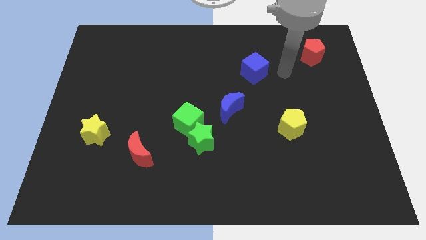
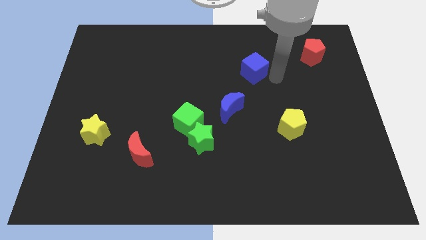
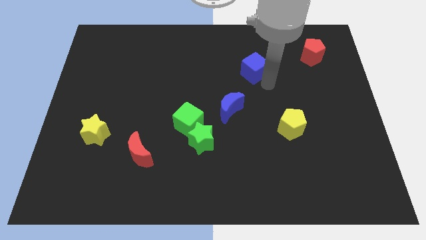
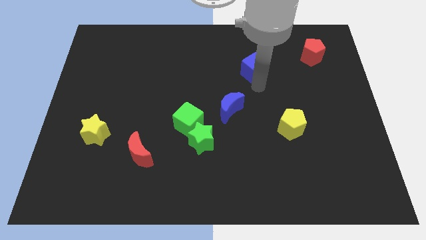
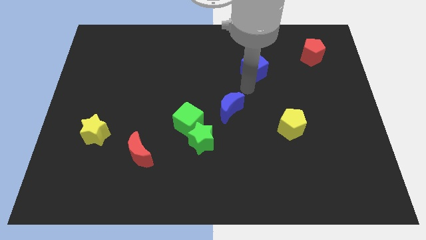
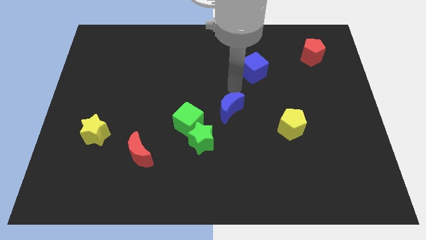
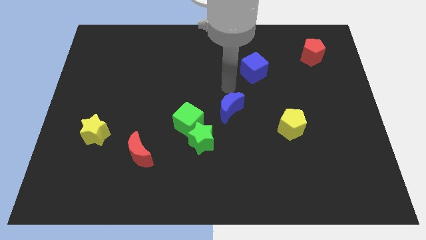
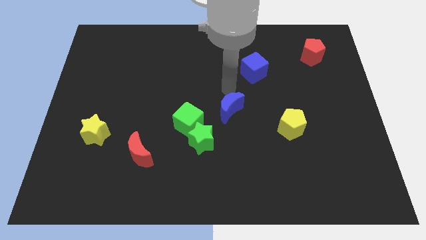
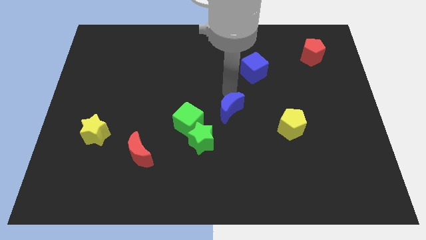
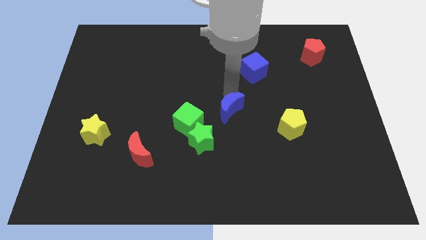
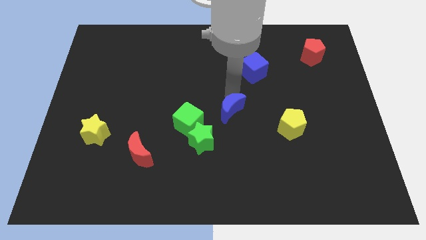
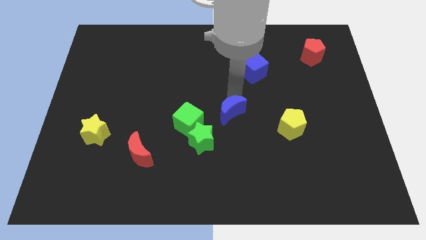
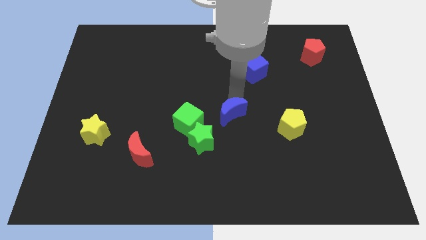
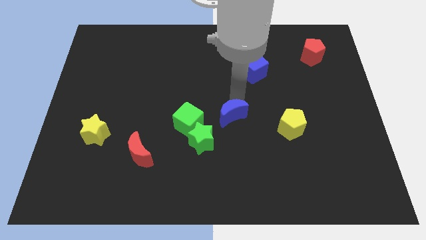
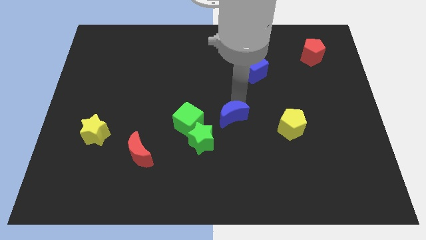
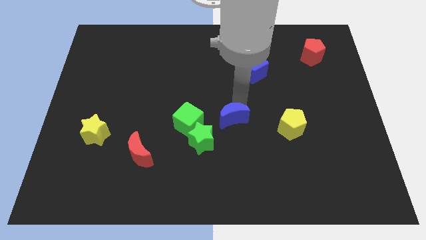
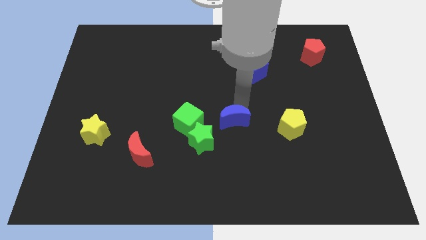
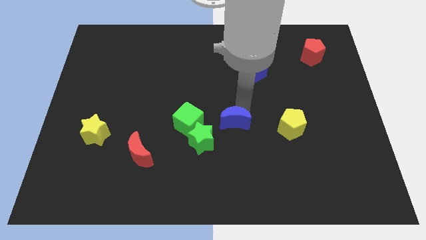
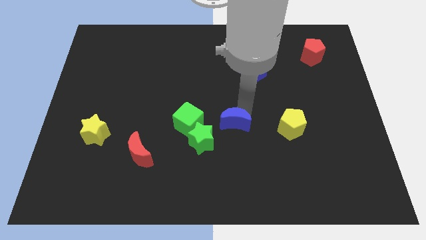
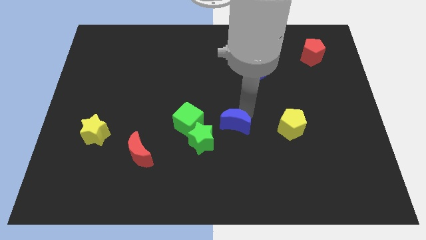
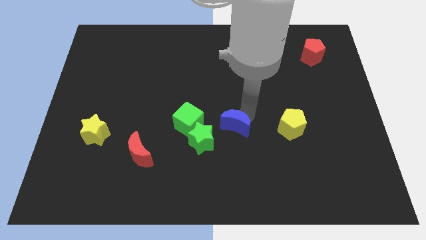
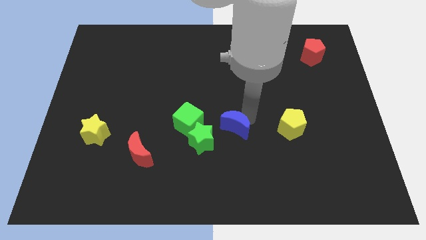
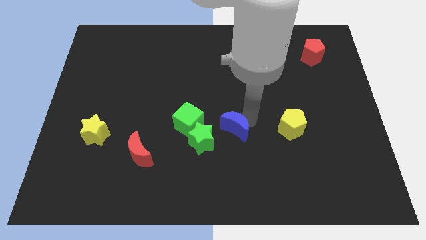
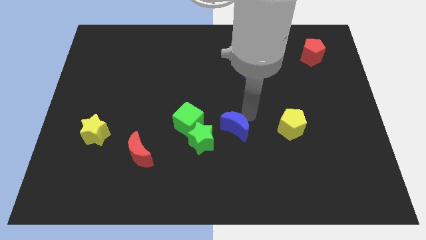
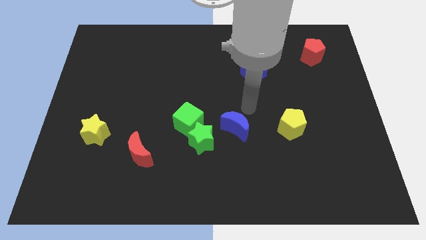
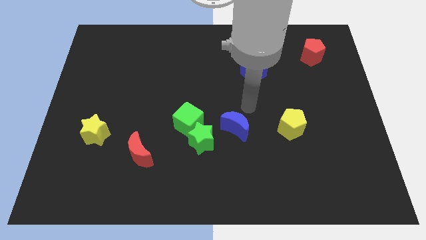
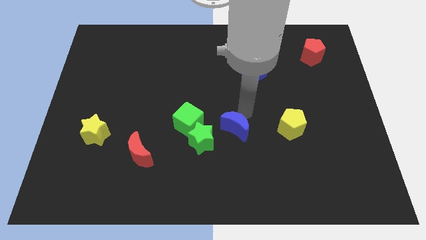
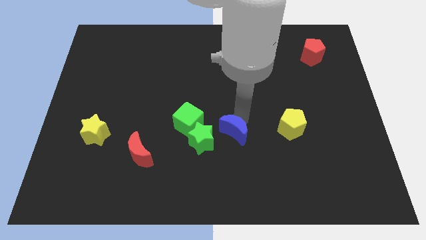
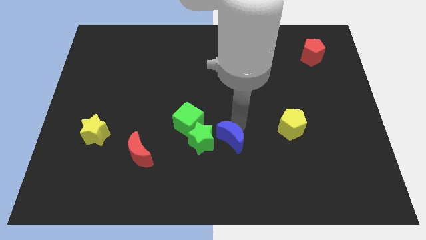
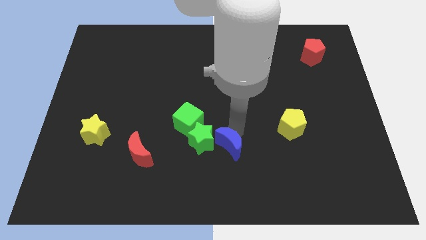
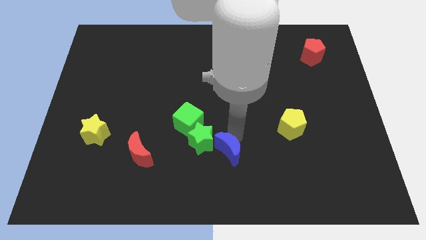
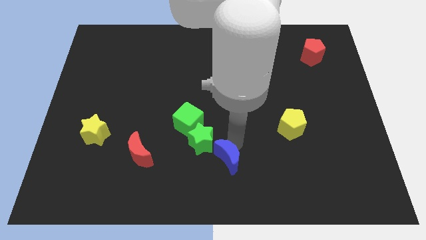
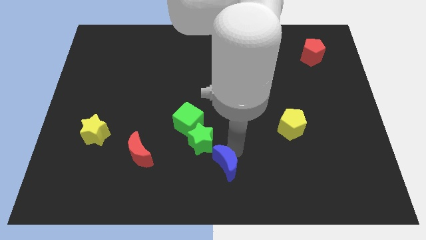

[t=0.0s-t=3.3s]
slide the blue moon a little diagonally down and to the left

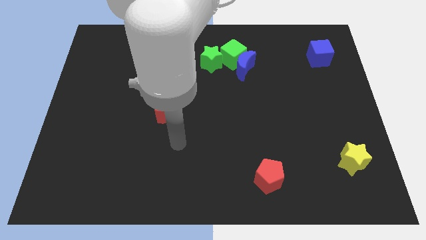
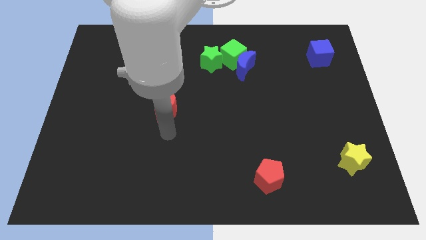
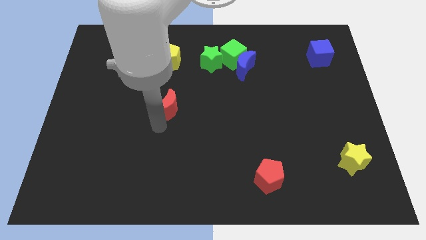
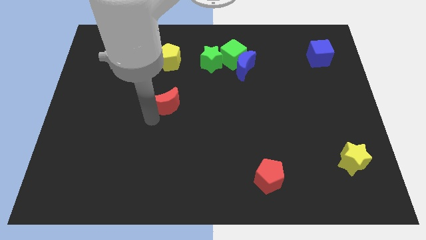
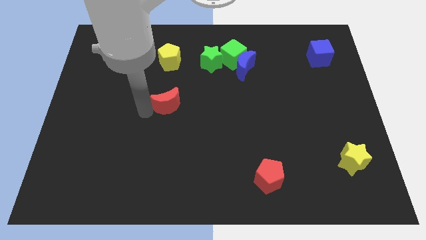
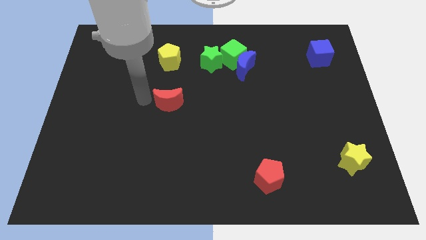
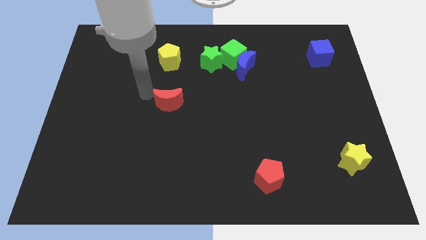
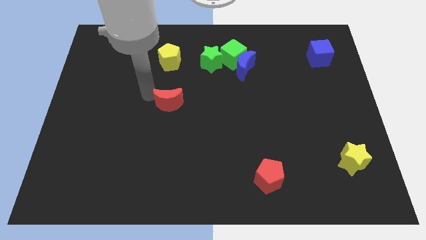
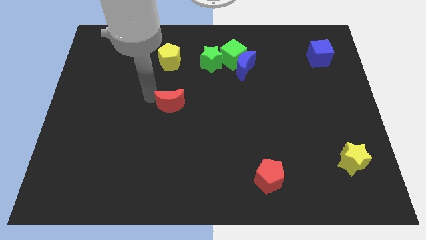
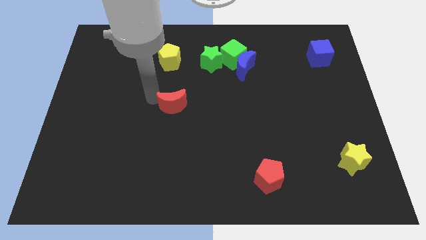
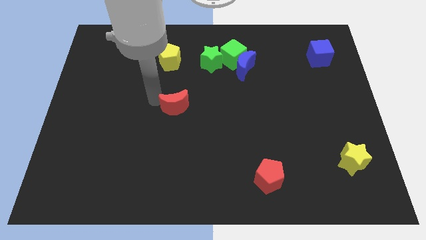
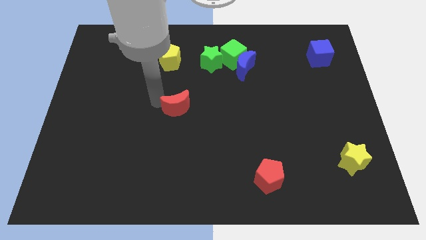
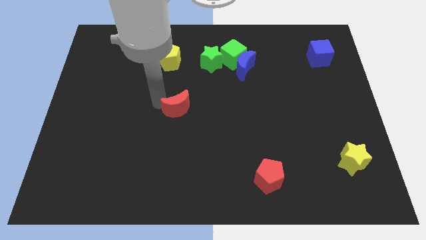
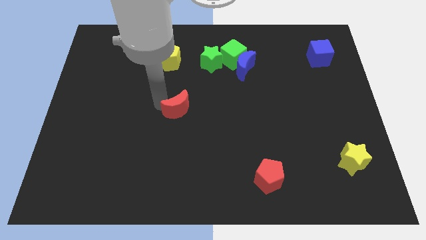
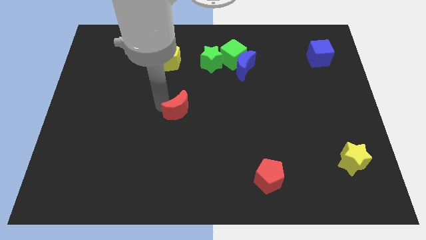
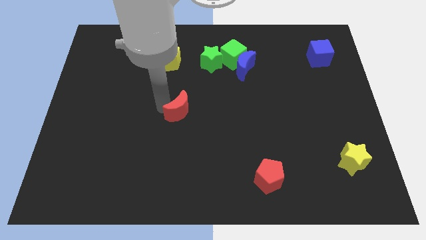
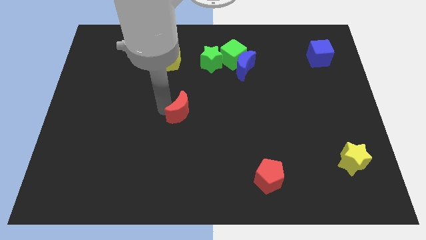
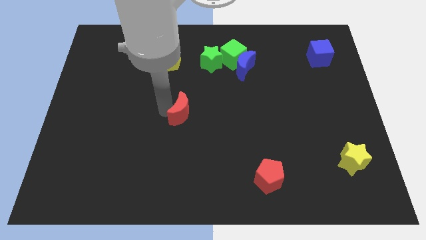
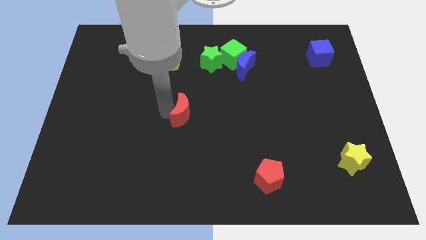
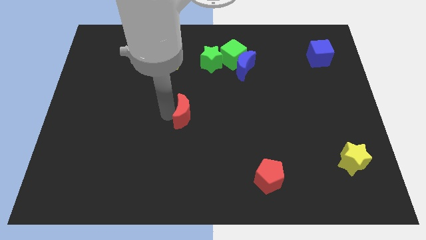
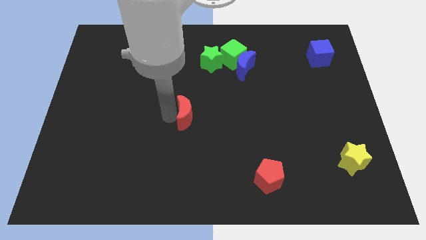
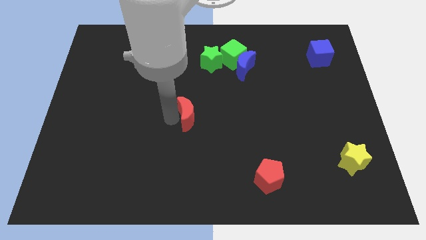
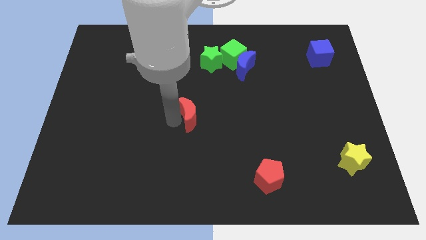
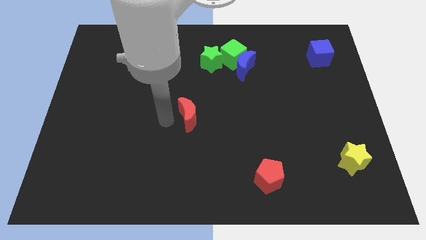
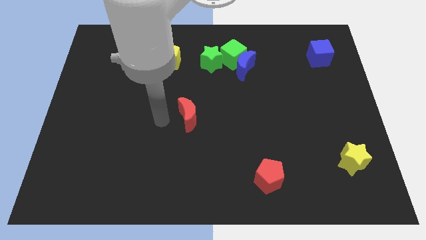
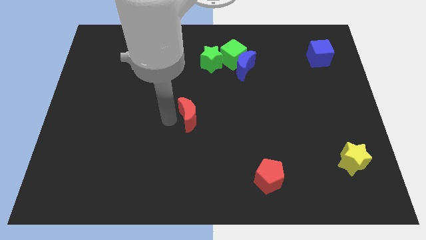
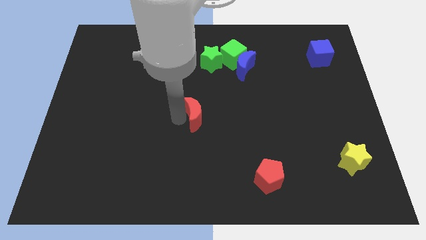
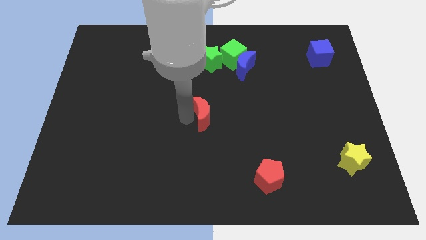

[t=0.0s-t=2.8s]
move the red moon right a little bit

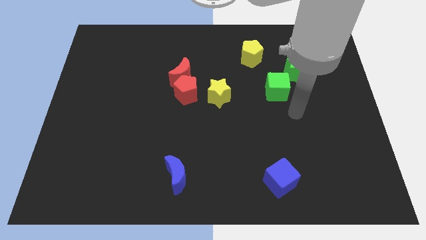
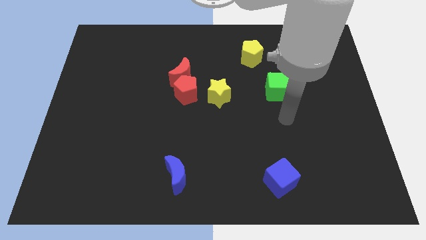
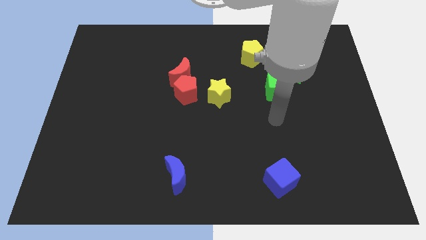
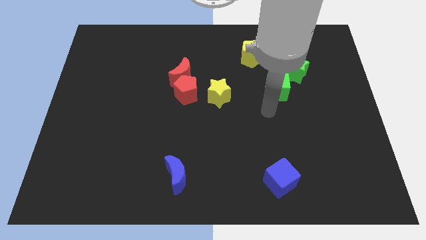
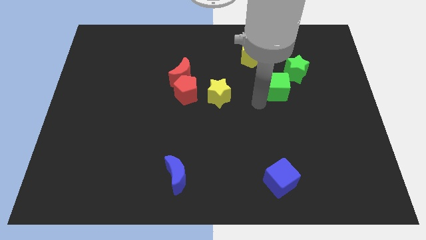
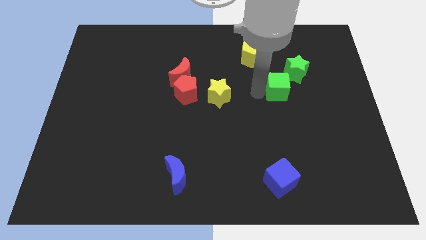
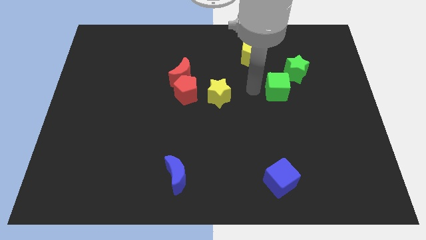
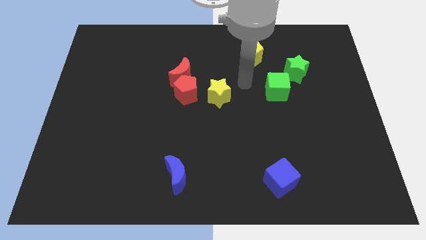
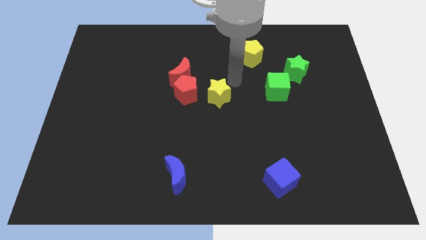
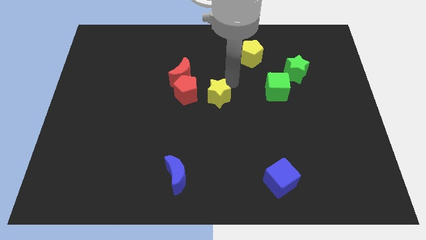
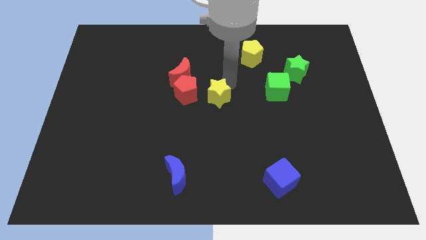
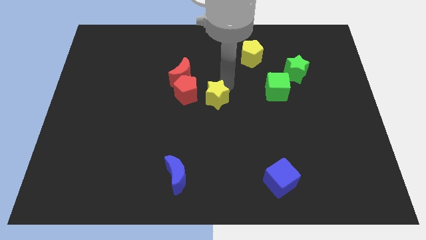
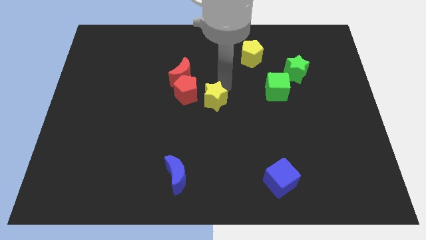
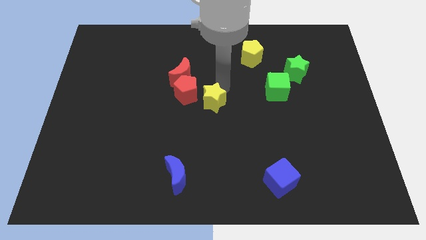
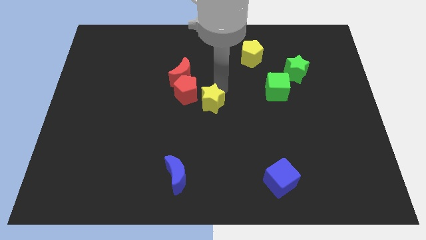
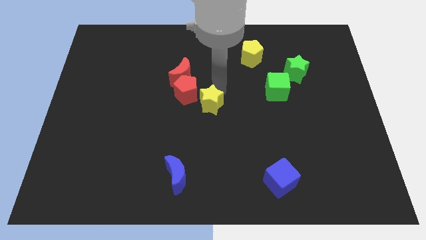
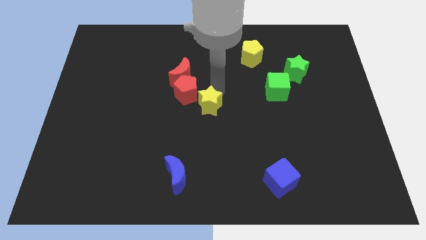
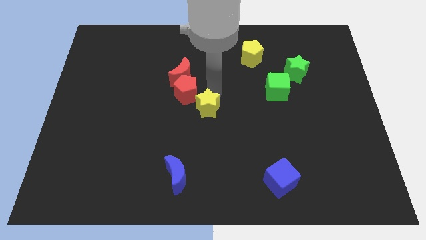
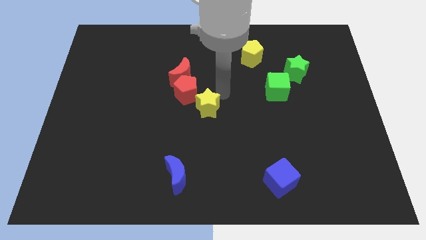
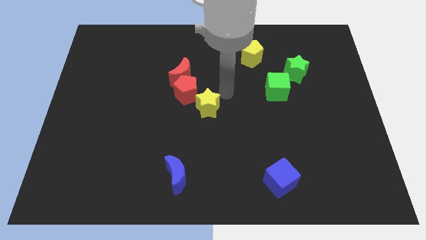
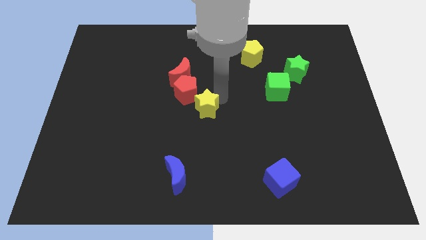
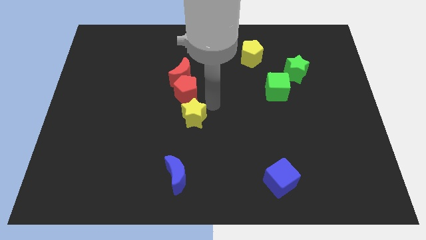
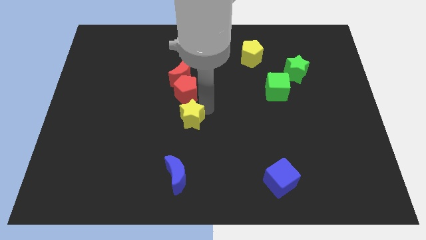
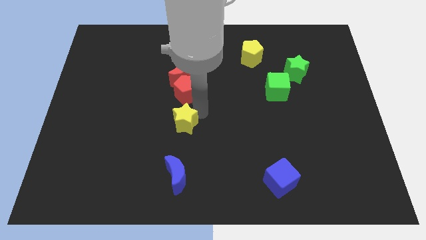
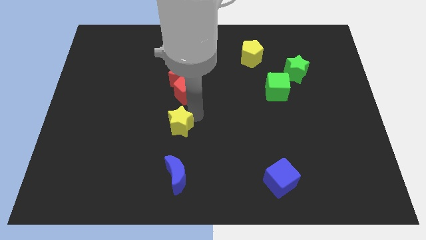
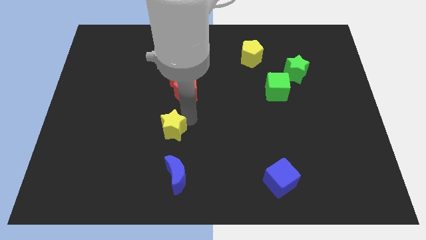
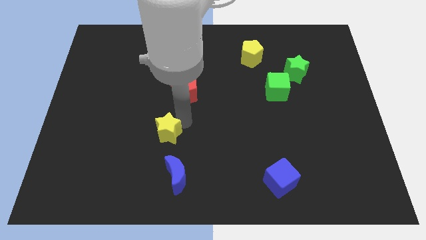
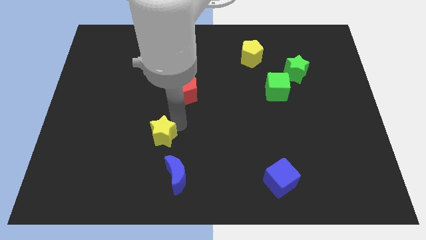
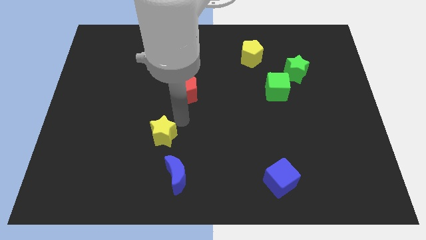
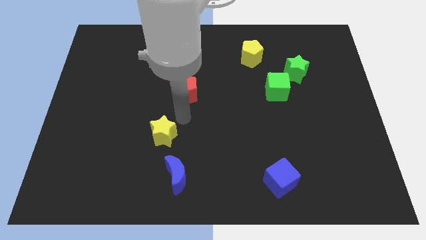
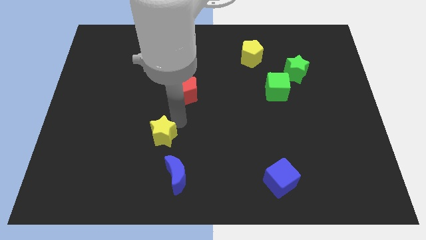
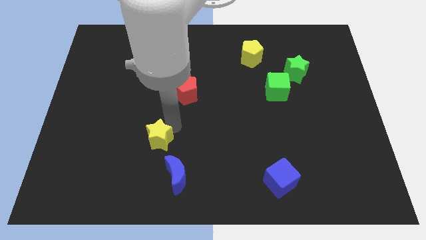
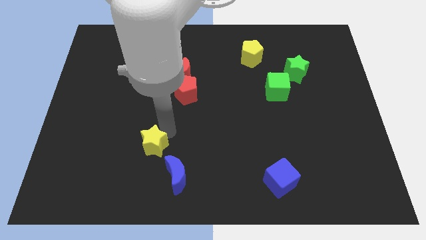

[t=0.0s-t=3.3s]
slide the yellow star down and to the left
